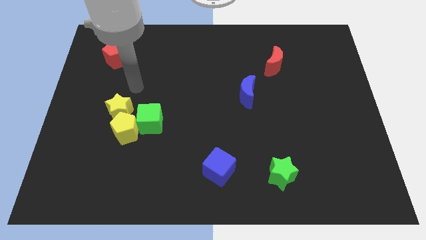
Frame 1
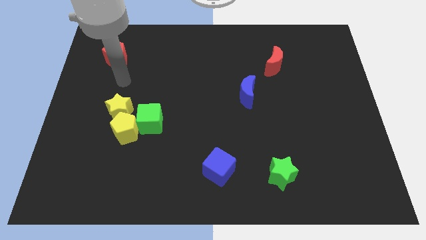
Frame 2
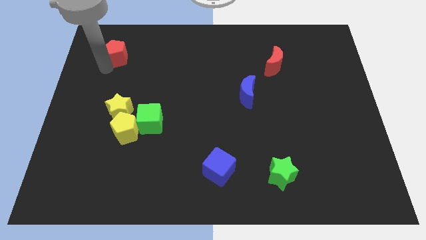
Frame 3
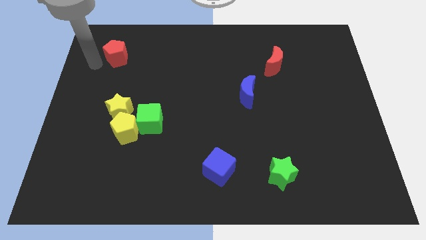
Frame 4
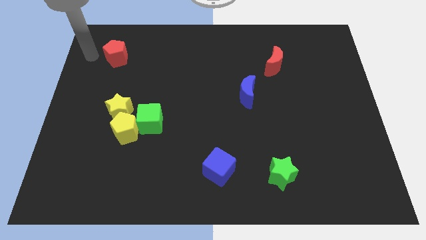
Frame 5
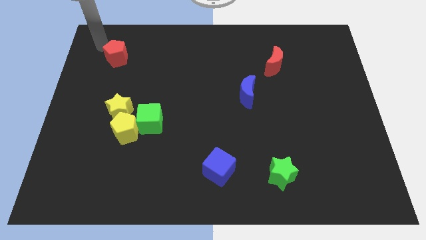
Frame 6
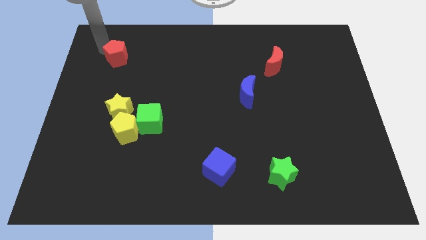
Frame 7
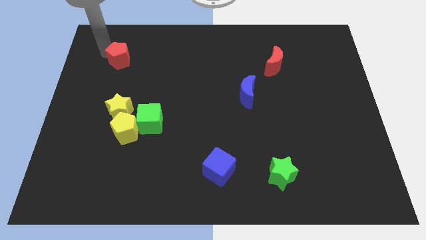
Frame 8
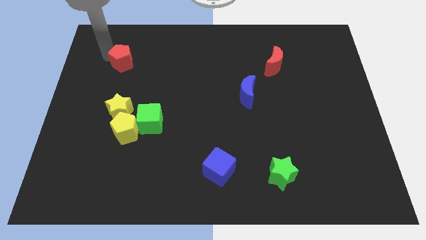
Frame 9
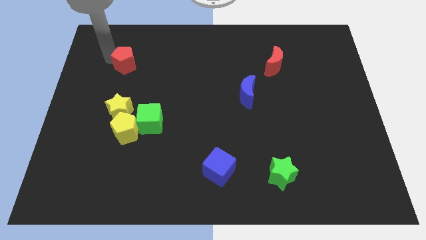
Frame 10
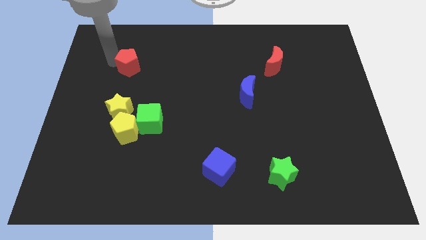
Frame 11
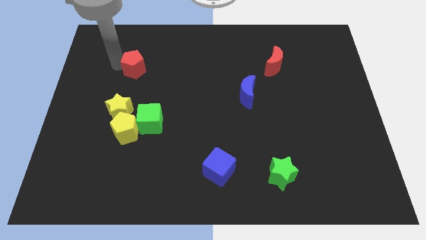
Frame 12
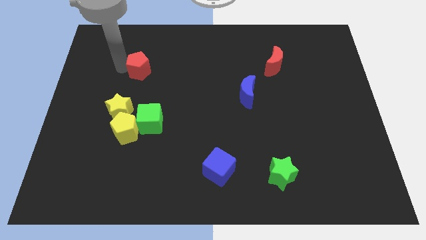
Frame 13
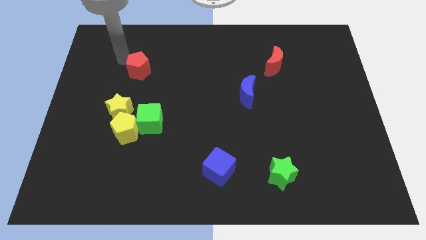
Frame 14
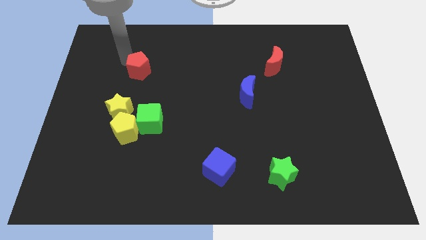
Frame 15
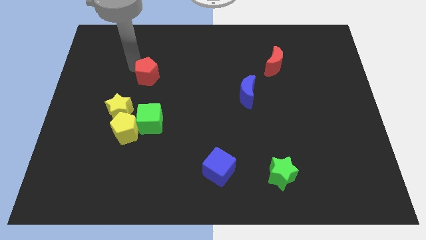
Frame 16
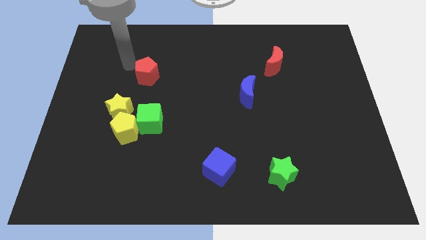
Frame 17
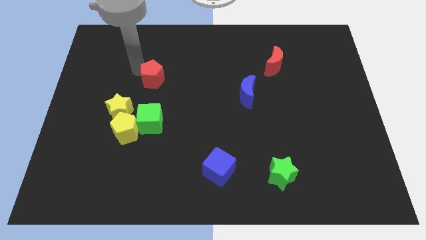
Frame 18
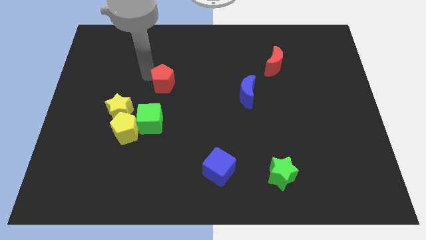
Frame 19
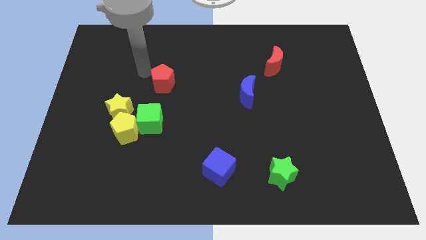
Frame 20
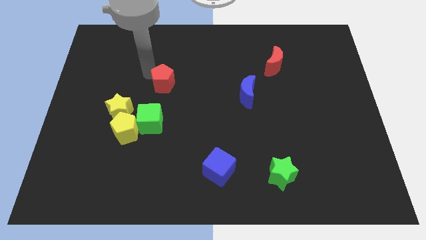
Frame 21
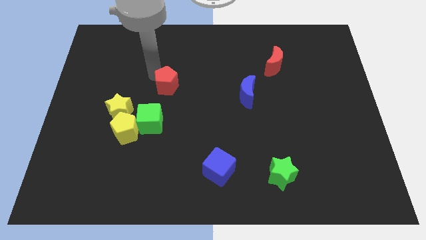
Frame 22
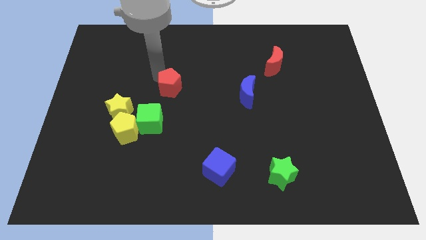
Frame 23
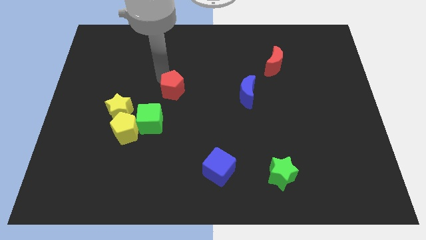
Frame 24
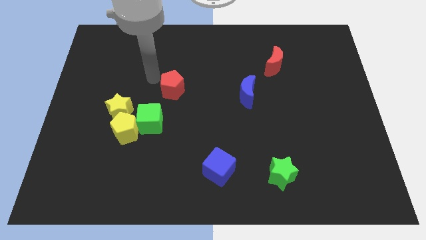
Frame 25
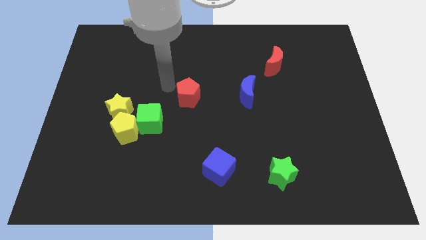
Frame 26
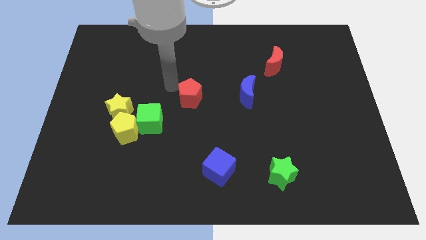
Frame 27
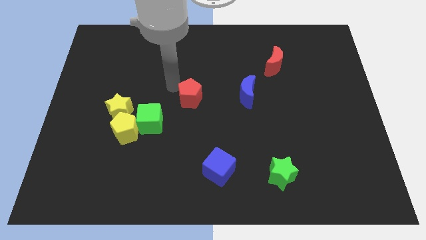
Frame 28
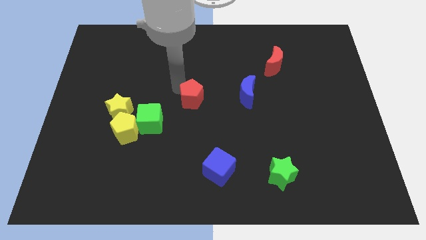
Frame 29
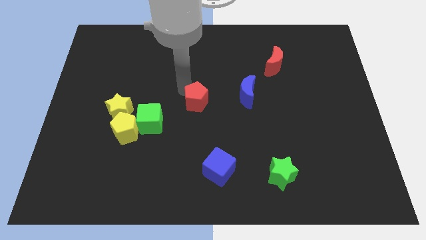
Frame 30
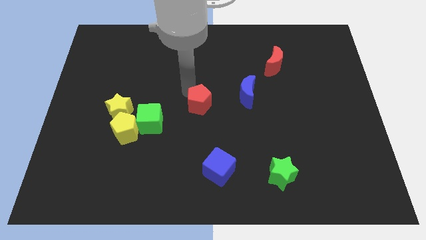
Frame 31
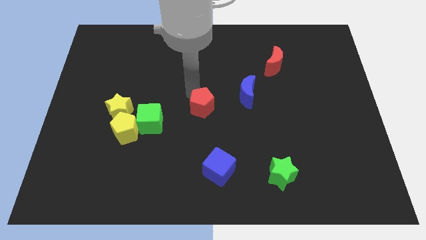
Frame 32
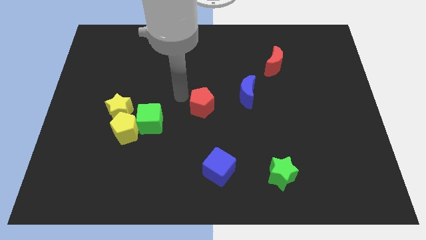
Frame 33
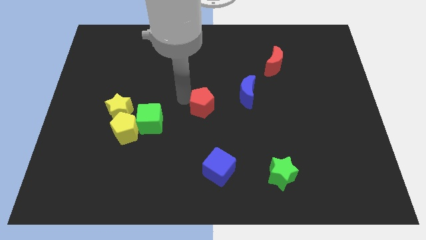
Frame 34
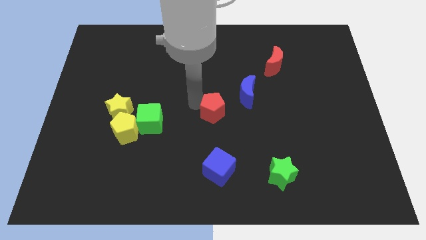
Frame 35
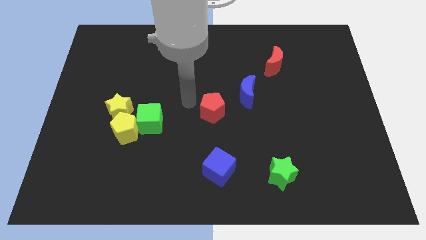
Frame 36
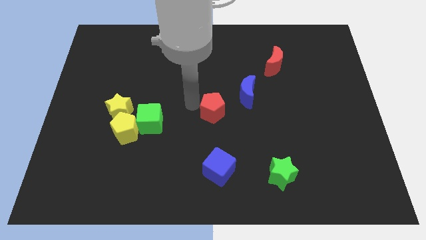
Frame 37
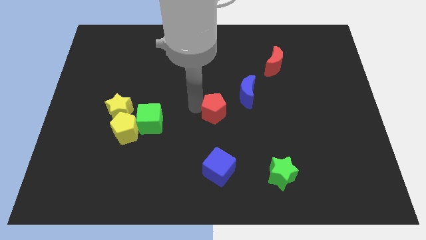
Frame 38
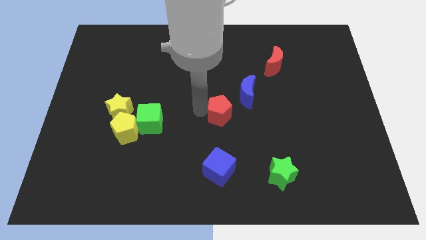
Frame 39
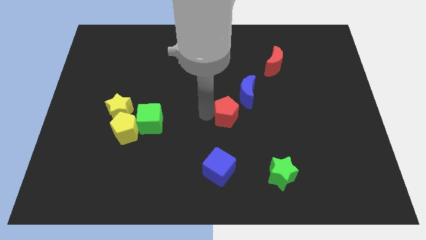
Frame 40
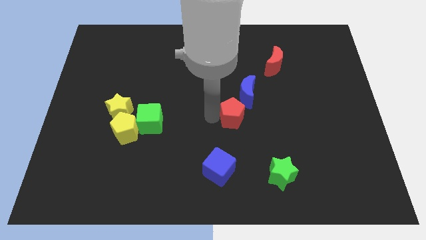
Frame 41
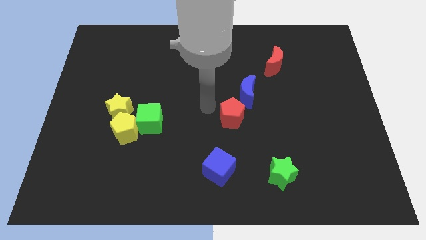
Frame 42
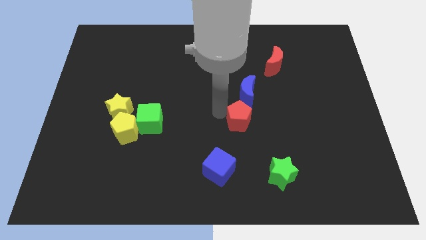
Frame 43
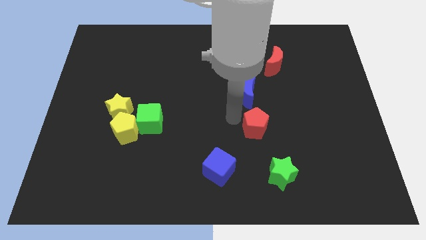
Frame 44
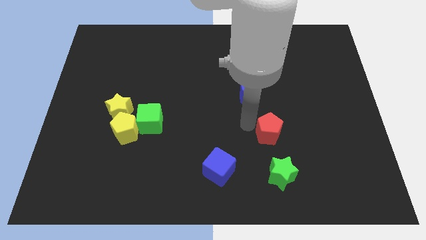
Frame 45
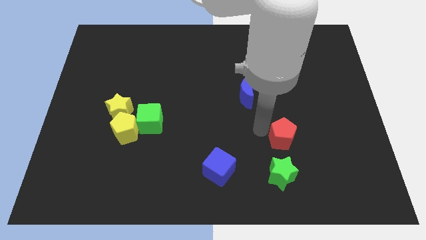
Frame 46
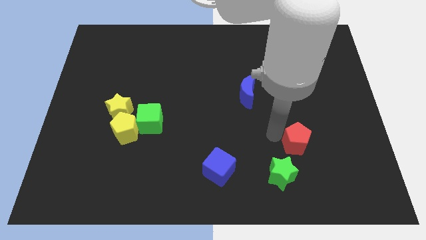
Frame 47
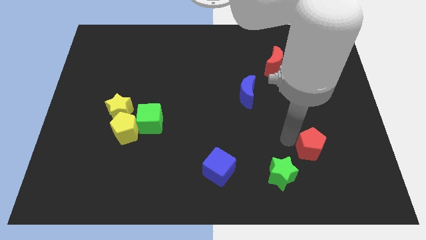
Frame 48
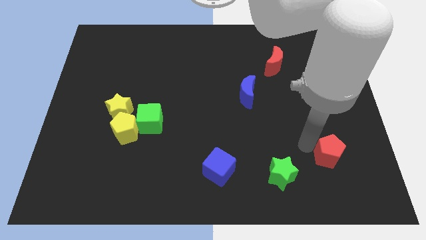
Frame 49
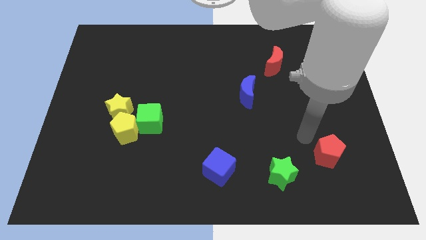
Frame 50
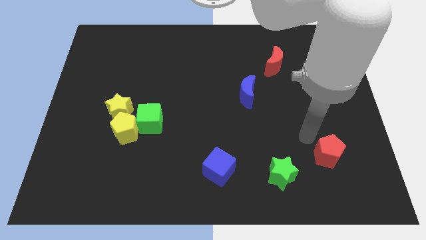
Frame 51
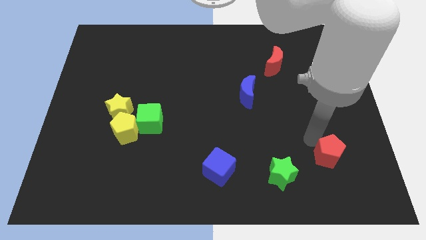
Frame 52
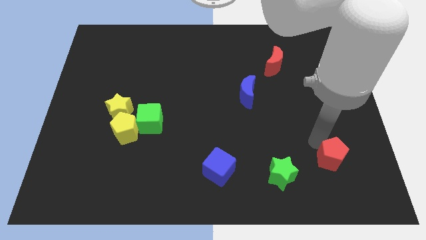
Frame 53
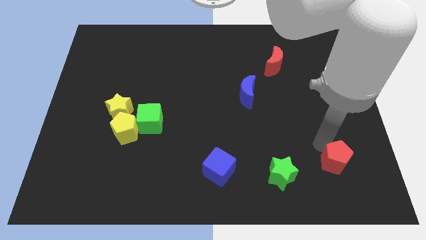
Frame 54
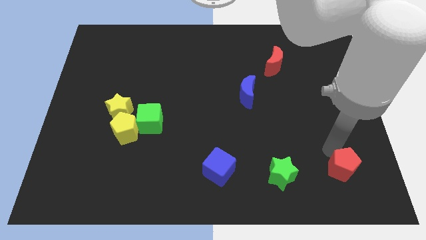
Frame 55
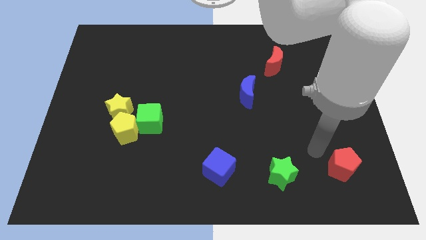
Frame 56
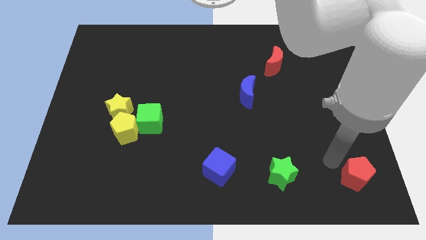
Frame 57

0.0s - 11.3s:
move the red pentagon to the lower right corner

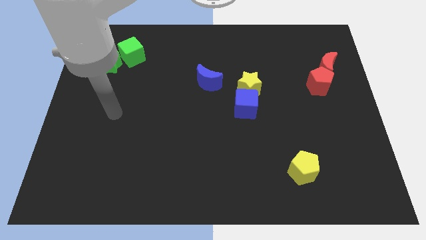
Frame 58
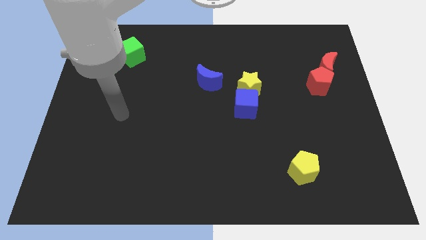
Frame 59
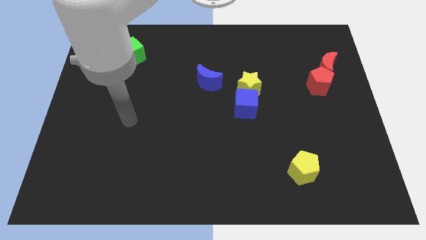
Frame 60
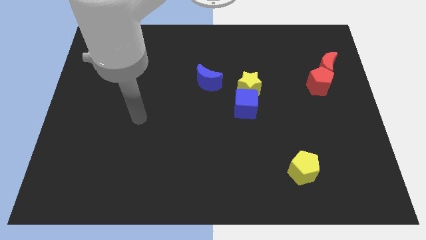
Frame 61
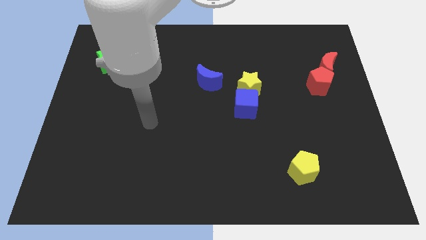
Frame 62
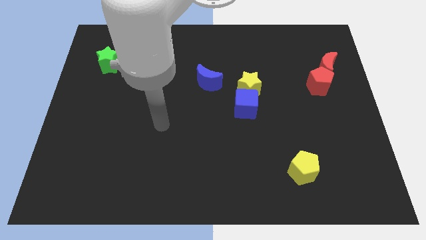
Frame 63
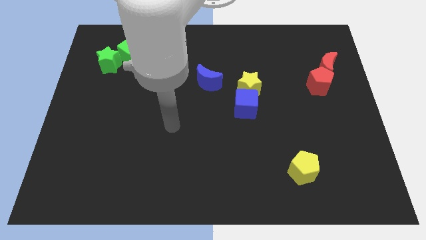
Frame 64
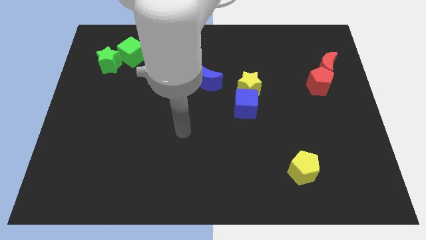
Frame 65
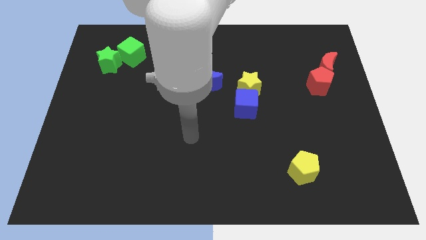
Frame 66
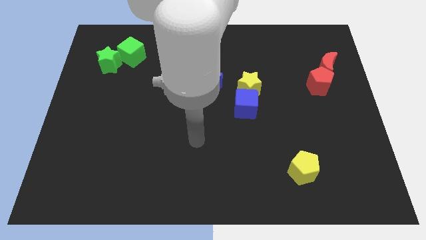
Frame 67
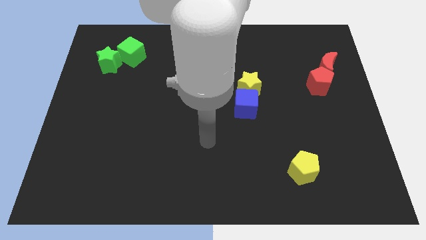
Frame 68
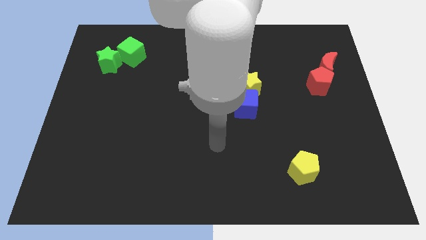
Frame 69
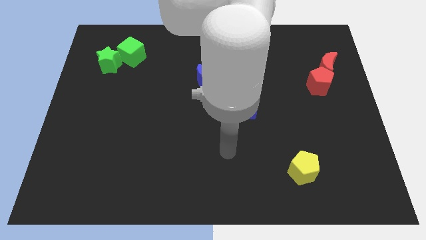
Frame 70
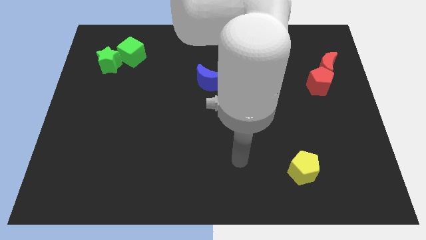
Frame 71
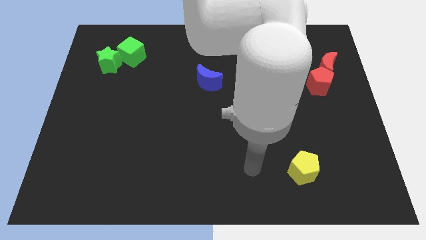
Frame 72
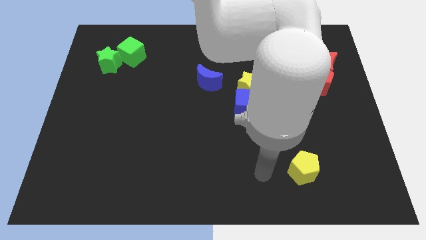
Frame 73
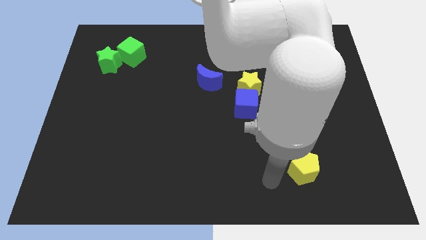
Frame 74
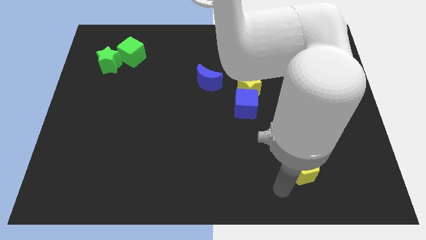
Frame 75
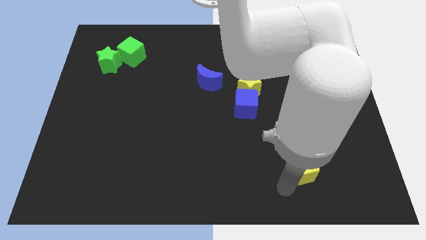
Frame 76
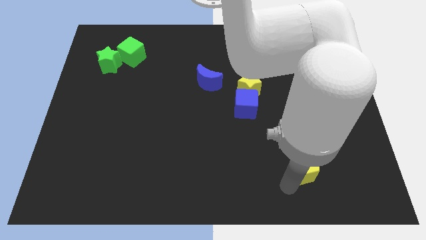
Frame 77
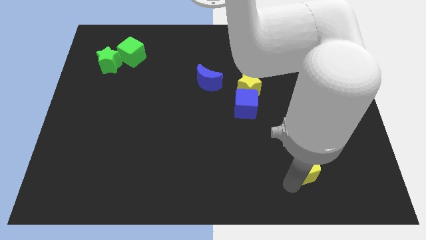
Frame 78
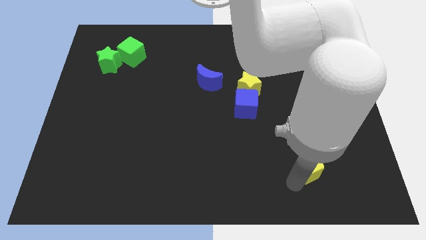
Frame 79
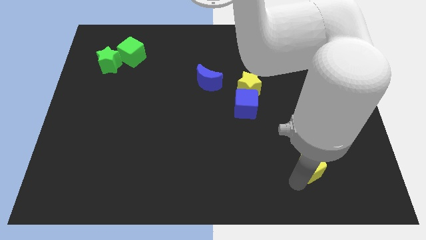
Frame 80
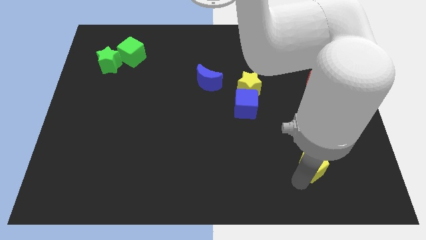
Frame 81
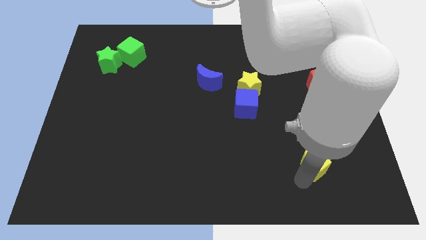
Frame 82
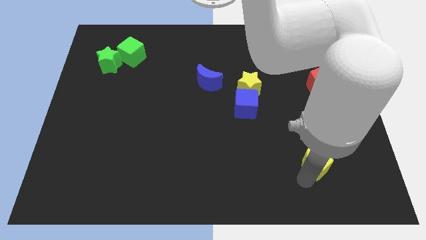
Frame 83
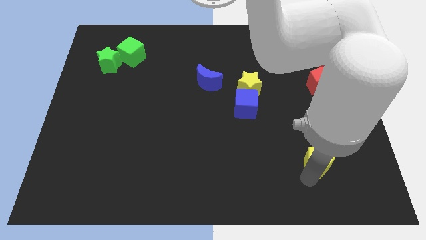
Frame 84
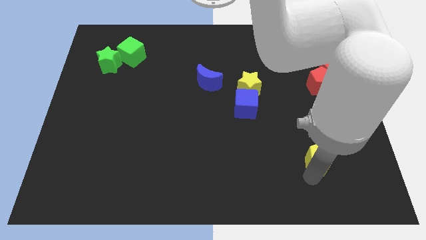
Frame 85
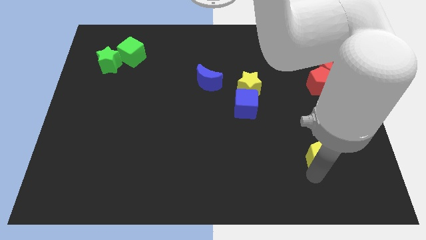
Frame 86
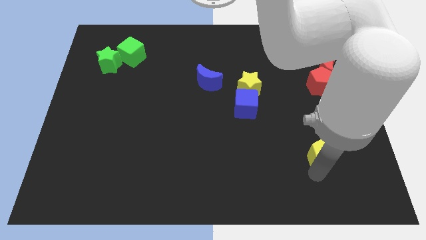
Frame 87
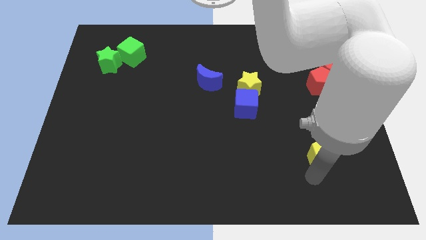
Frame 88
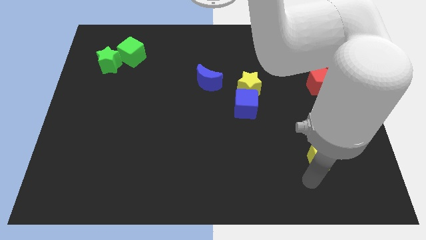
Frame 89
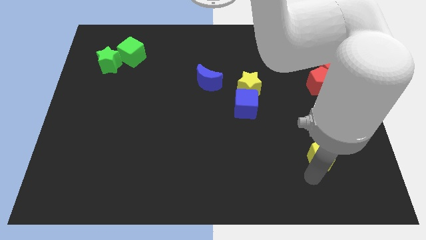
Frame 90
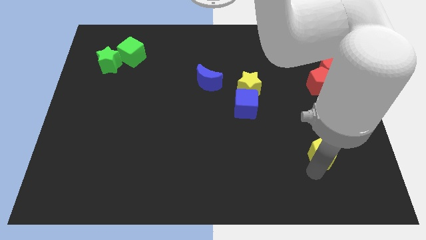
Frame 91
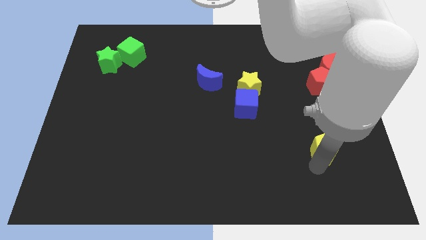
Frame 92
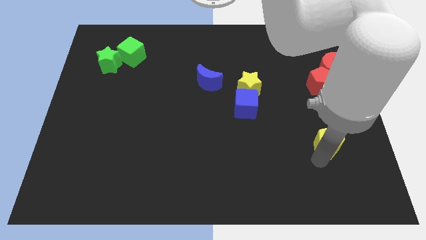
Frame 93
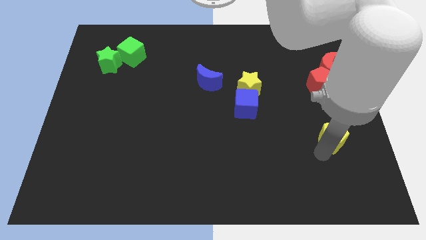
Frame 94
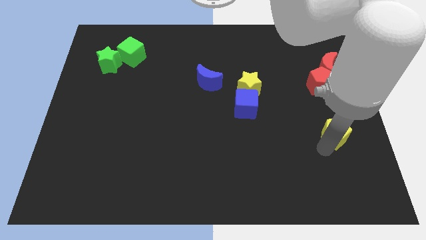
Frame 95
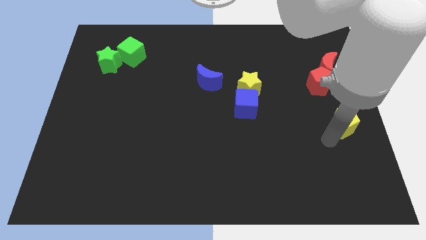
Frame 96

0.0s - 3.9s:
move the yellow pentagon to the right side of the board
